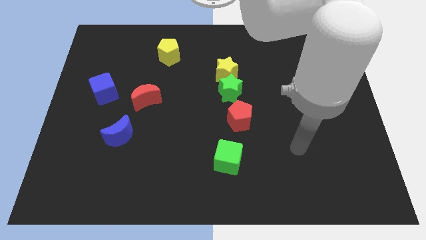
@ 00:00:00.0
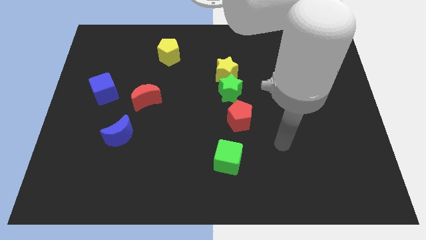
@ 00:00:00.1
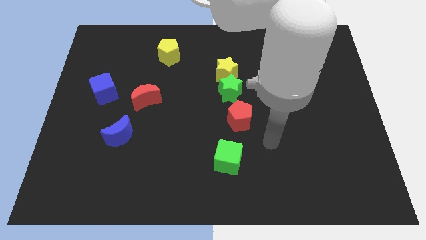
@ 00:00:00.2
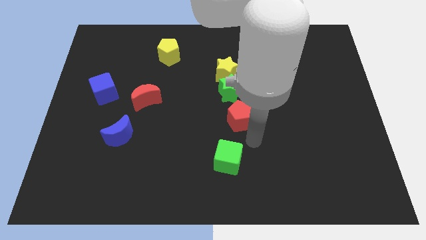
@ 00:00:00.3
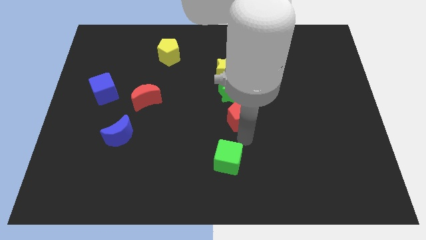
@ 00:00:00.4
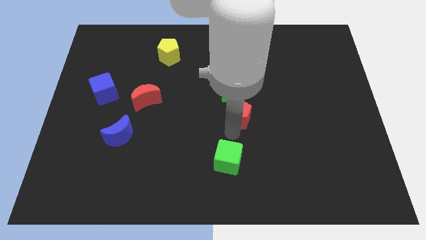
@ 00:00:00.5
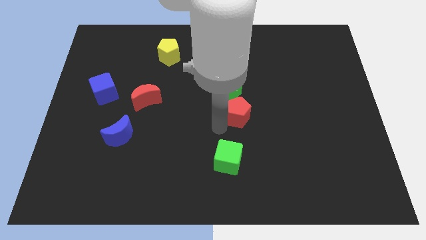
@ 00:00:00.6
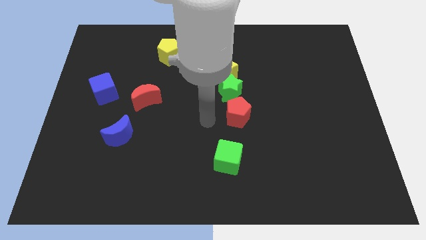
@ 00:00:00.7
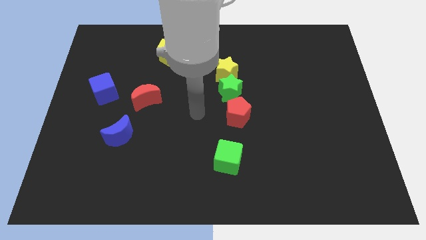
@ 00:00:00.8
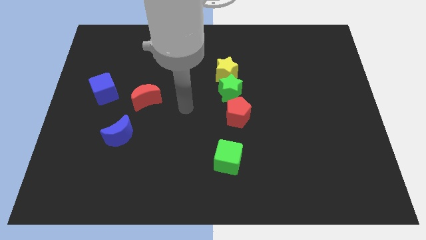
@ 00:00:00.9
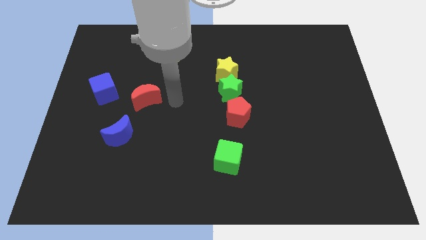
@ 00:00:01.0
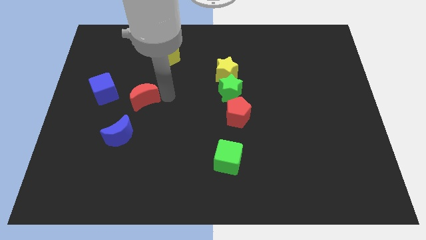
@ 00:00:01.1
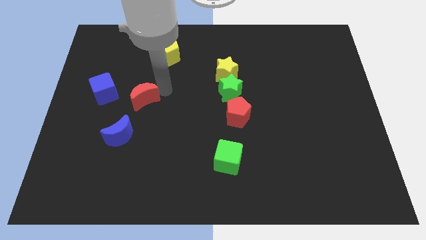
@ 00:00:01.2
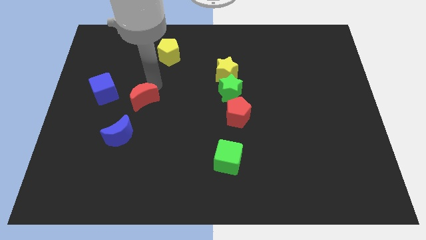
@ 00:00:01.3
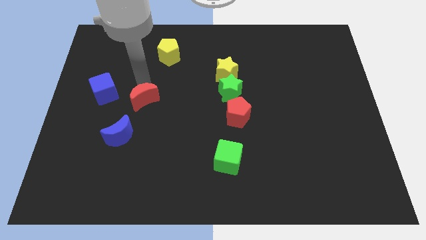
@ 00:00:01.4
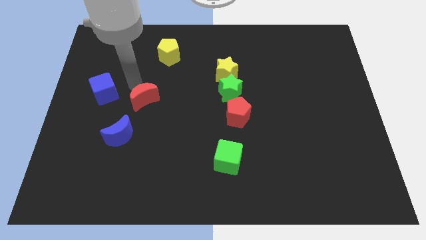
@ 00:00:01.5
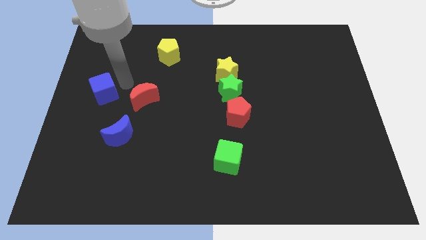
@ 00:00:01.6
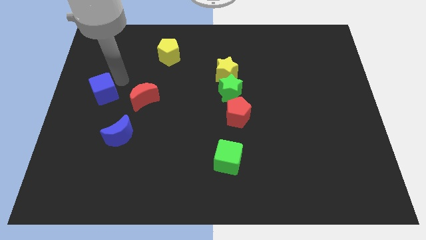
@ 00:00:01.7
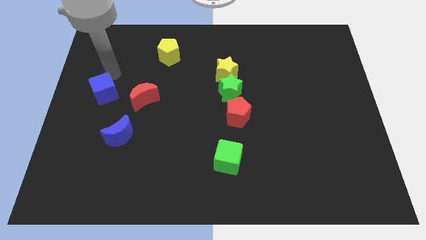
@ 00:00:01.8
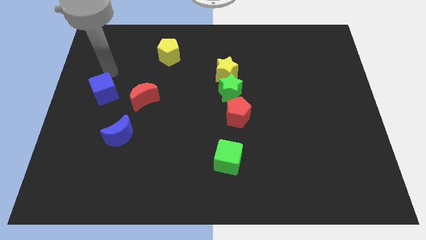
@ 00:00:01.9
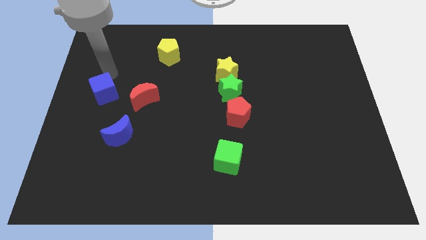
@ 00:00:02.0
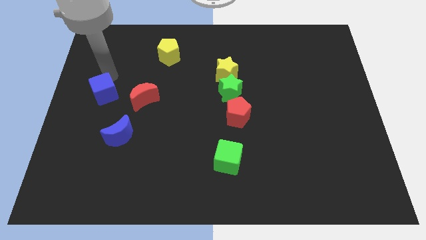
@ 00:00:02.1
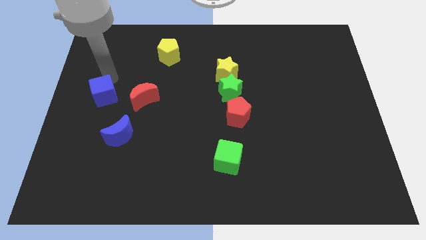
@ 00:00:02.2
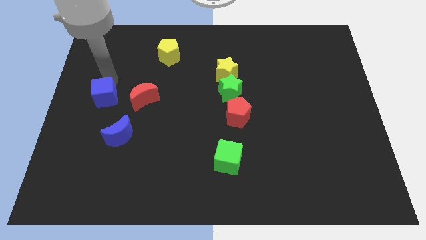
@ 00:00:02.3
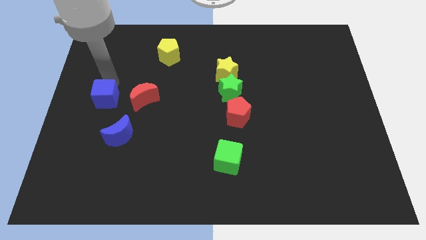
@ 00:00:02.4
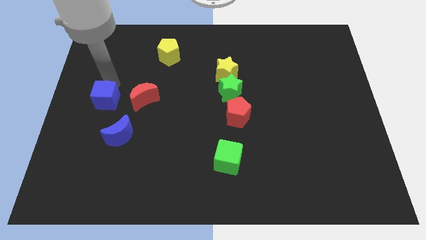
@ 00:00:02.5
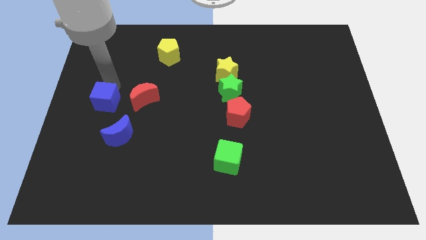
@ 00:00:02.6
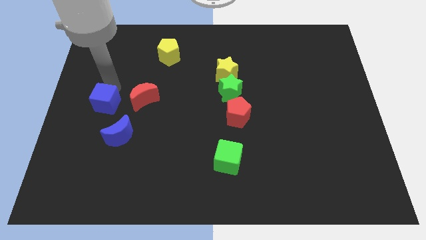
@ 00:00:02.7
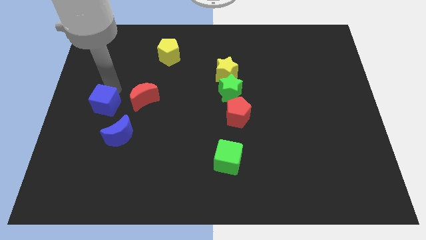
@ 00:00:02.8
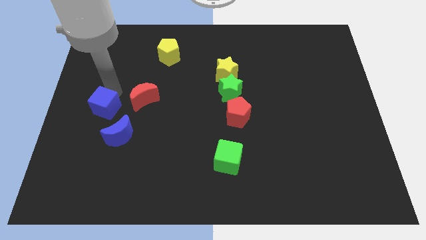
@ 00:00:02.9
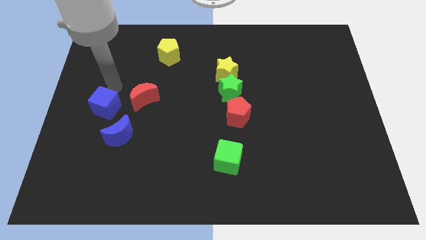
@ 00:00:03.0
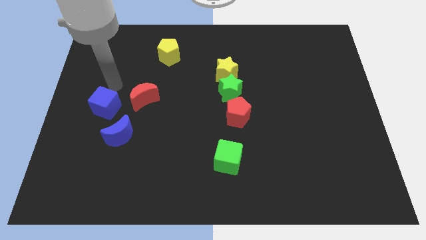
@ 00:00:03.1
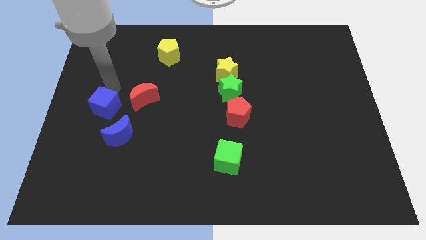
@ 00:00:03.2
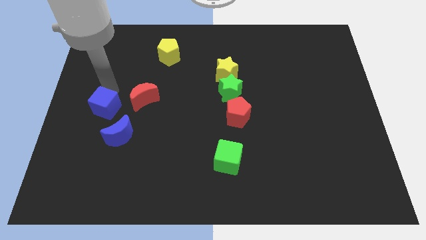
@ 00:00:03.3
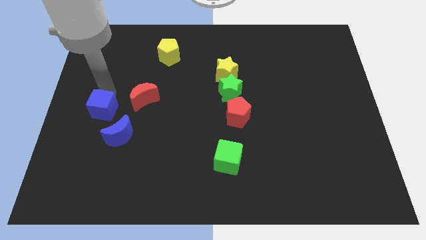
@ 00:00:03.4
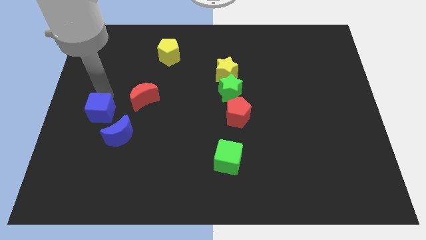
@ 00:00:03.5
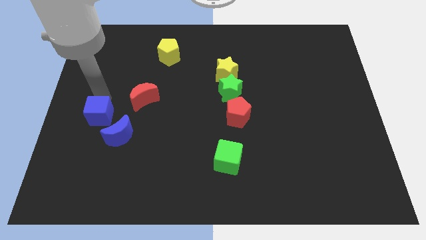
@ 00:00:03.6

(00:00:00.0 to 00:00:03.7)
slide the blue cube downwards a bit

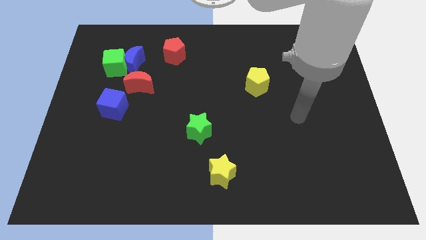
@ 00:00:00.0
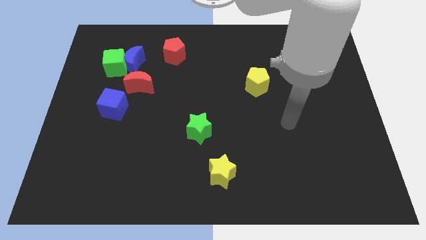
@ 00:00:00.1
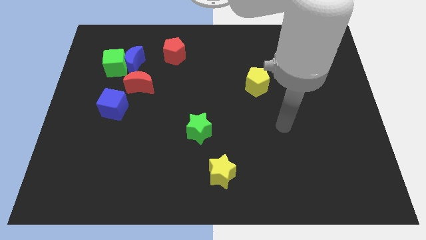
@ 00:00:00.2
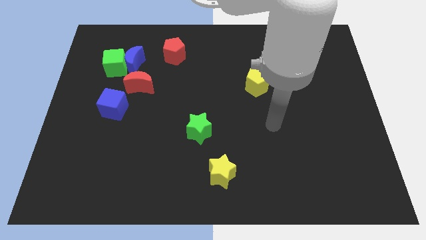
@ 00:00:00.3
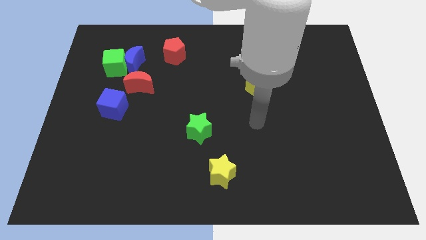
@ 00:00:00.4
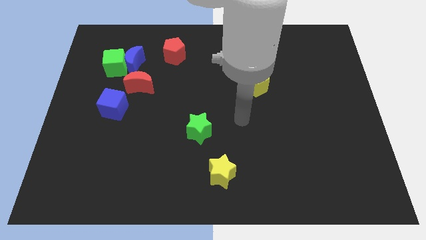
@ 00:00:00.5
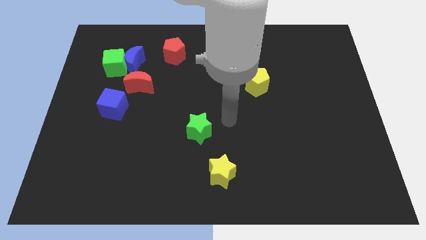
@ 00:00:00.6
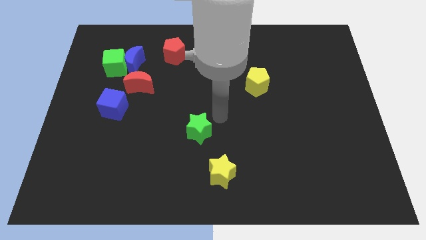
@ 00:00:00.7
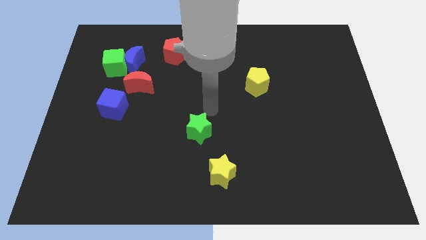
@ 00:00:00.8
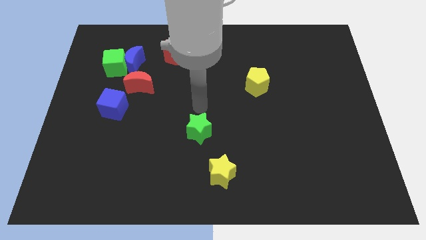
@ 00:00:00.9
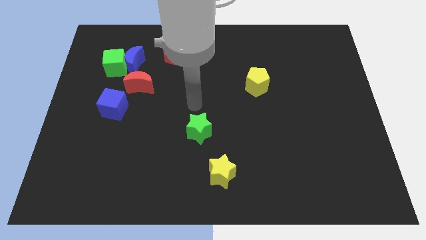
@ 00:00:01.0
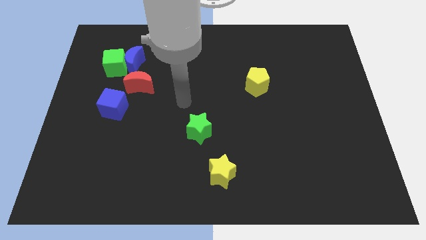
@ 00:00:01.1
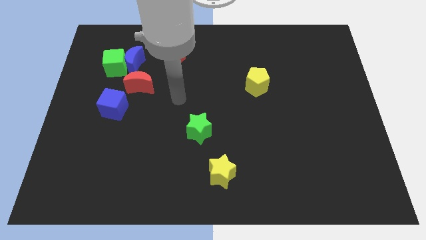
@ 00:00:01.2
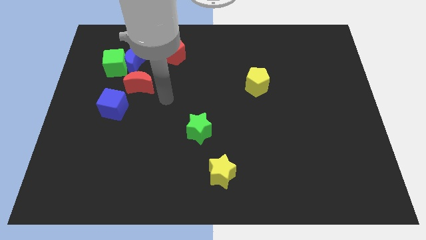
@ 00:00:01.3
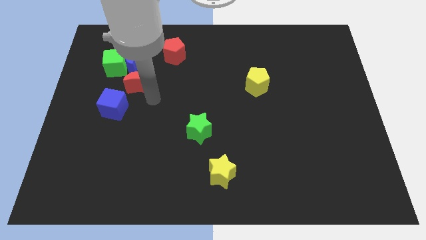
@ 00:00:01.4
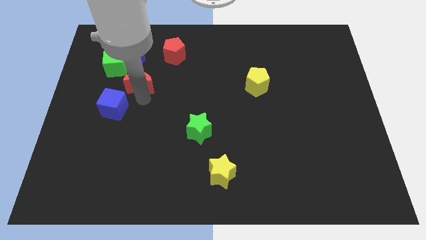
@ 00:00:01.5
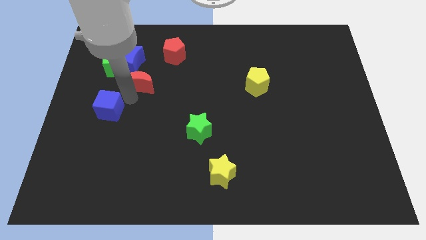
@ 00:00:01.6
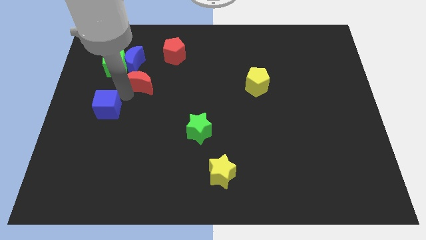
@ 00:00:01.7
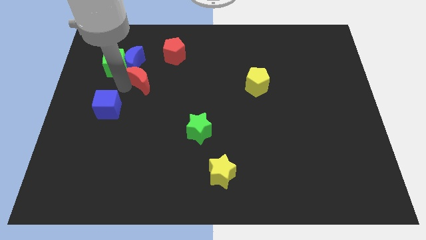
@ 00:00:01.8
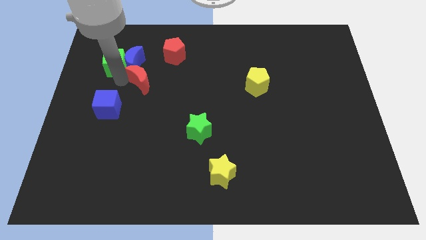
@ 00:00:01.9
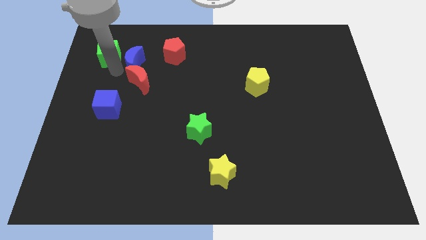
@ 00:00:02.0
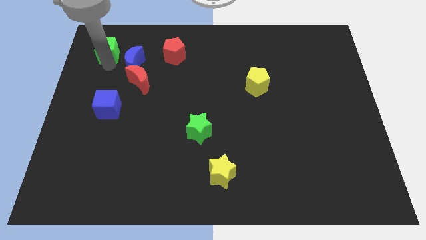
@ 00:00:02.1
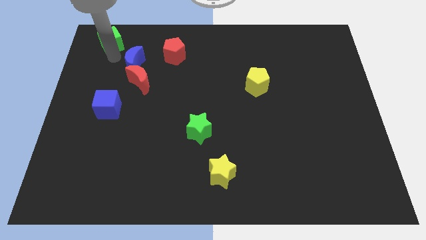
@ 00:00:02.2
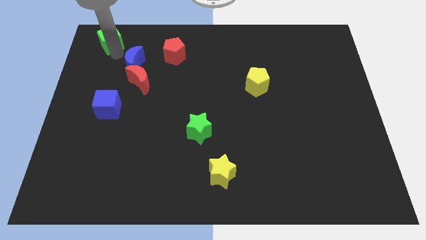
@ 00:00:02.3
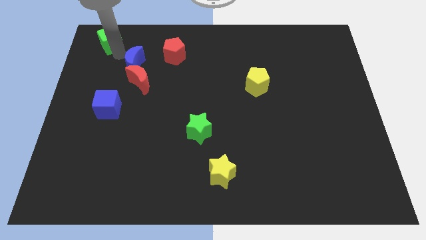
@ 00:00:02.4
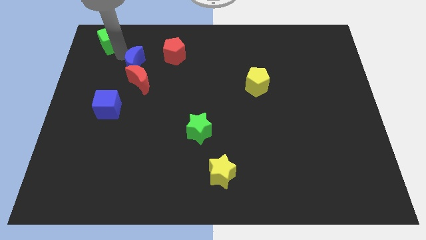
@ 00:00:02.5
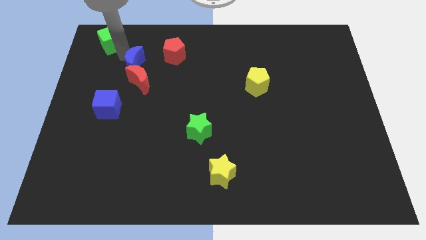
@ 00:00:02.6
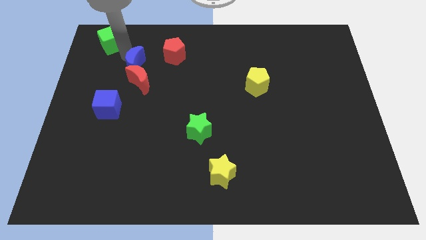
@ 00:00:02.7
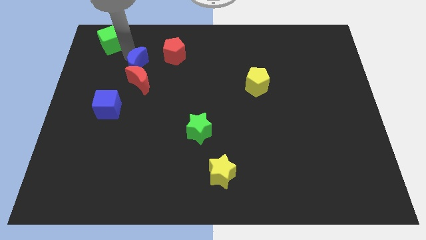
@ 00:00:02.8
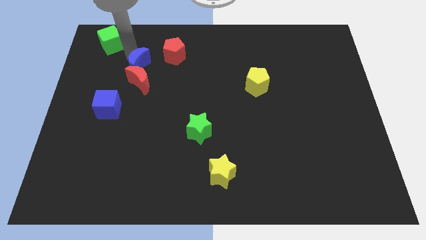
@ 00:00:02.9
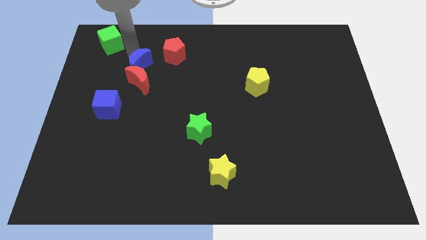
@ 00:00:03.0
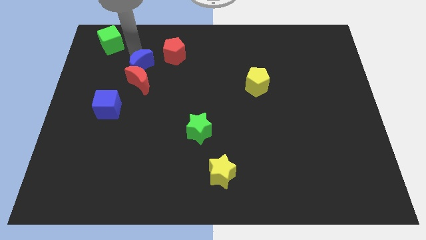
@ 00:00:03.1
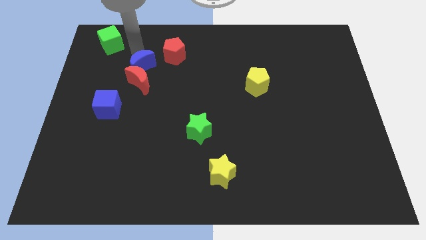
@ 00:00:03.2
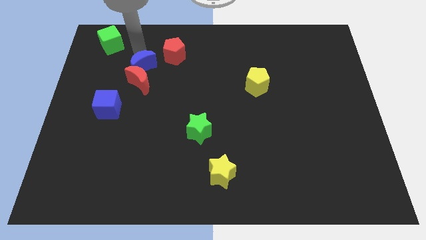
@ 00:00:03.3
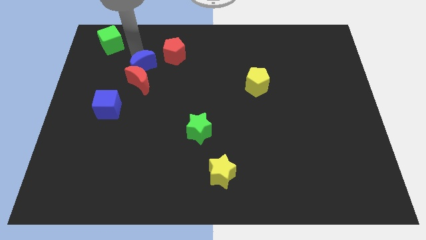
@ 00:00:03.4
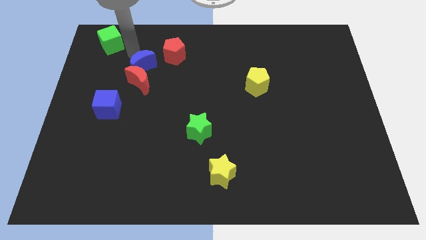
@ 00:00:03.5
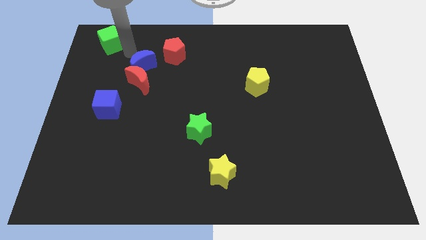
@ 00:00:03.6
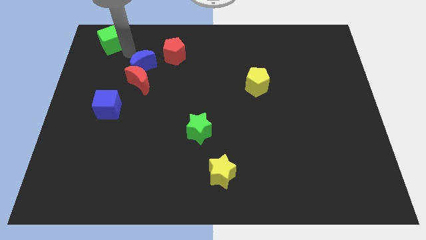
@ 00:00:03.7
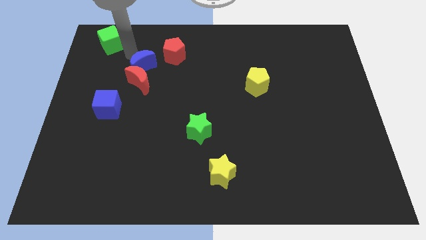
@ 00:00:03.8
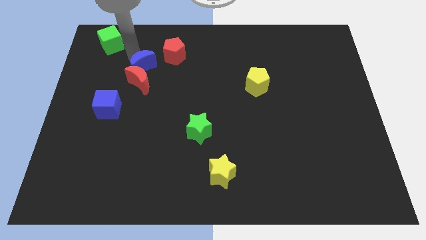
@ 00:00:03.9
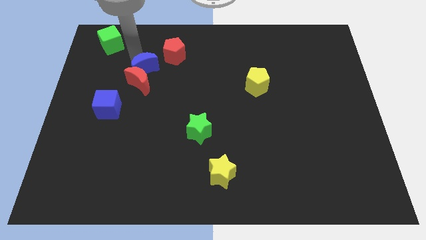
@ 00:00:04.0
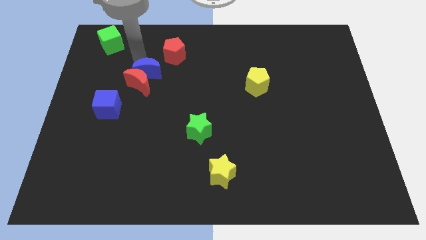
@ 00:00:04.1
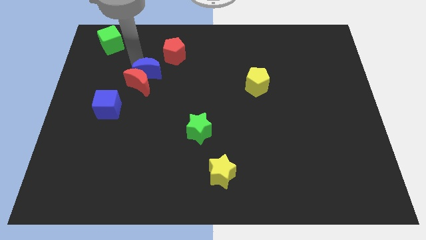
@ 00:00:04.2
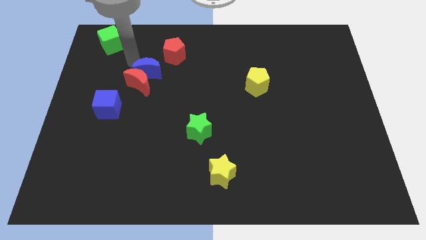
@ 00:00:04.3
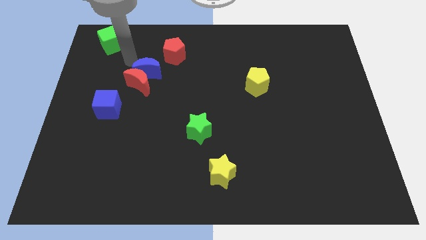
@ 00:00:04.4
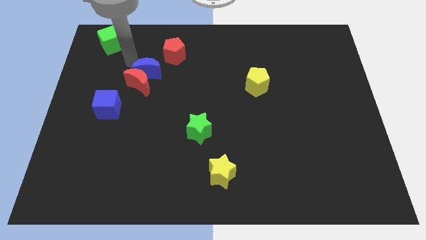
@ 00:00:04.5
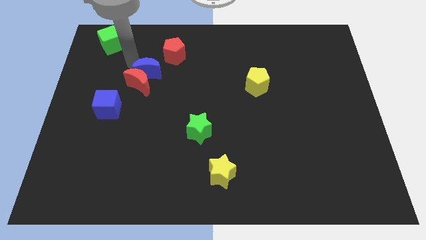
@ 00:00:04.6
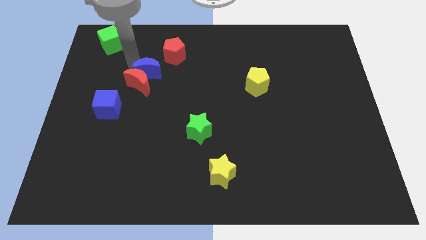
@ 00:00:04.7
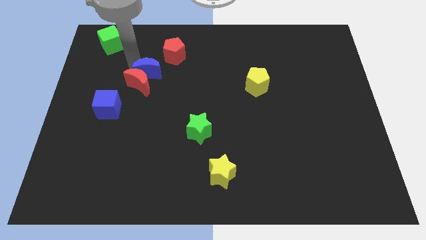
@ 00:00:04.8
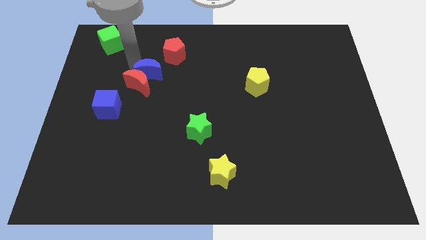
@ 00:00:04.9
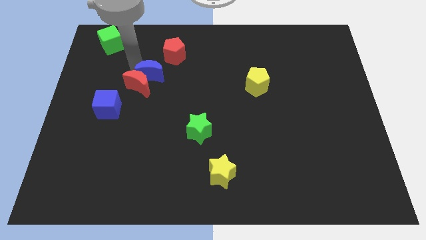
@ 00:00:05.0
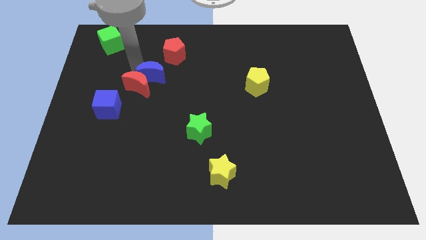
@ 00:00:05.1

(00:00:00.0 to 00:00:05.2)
move the blue moon a little downwards and right
